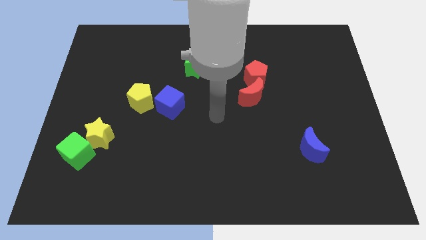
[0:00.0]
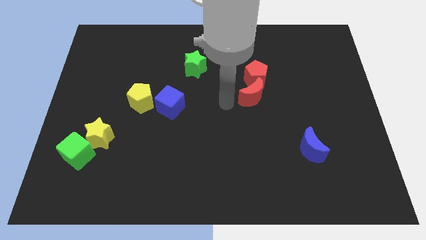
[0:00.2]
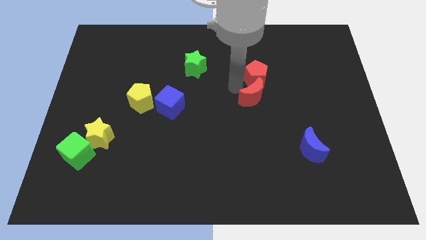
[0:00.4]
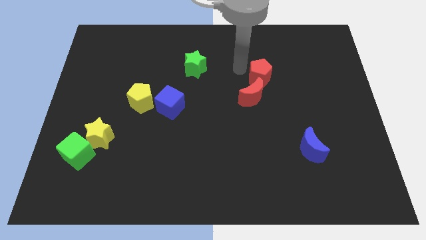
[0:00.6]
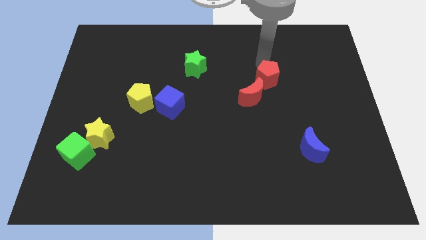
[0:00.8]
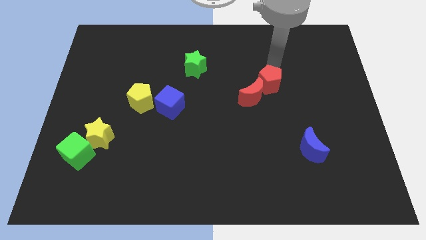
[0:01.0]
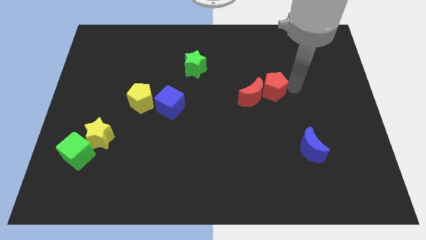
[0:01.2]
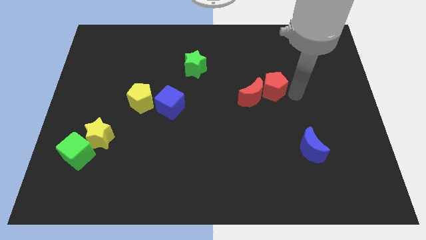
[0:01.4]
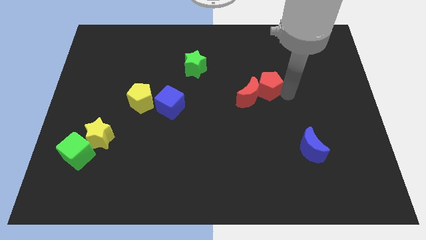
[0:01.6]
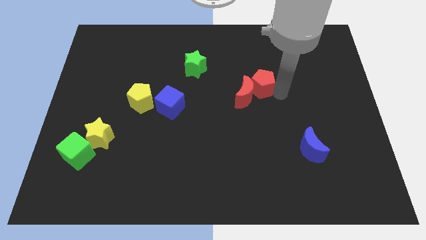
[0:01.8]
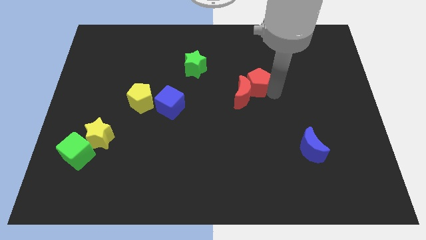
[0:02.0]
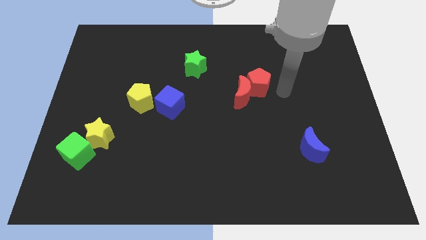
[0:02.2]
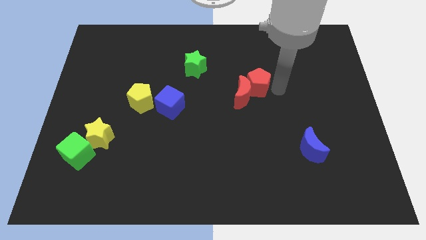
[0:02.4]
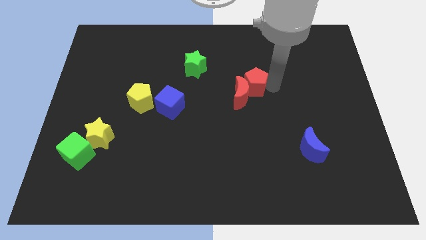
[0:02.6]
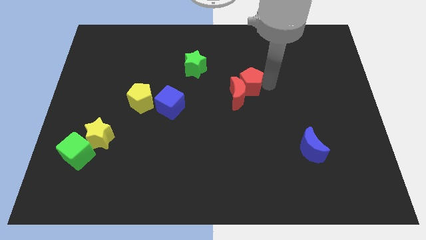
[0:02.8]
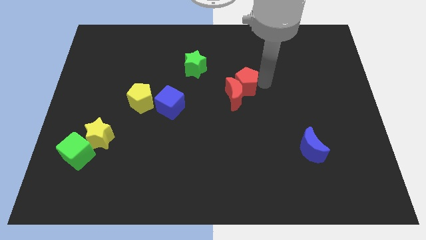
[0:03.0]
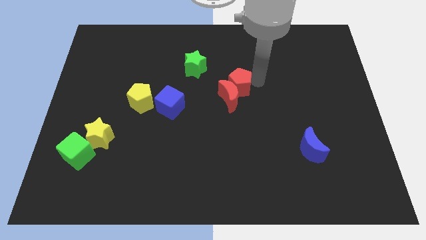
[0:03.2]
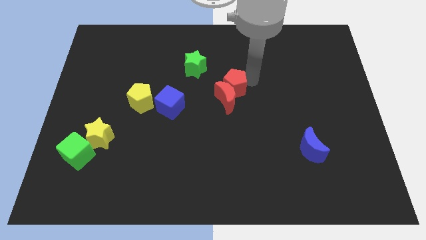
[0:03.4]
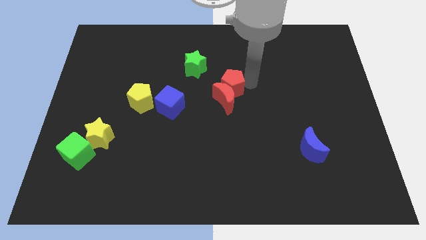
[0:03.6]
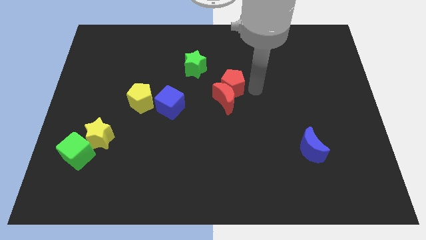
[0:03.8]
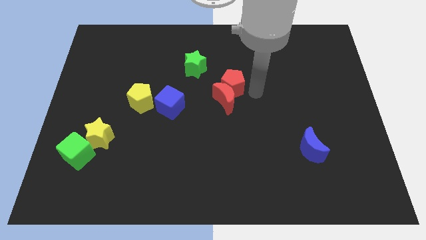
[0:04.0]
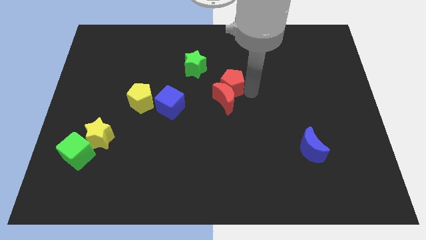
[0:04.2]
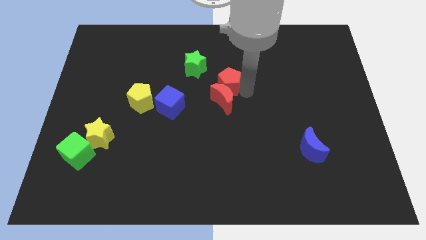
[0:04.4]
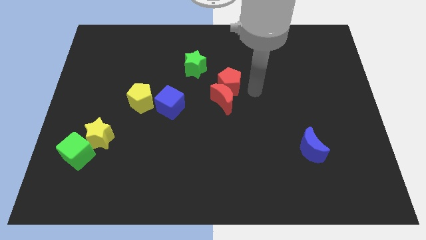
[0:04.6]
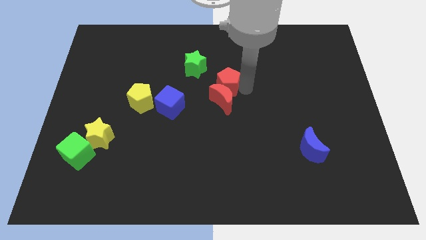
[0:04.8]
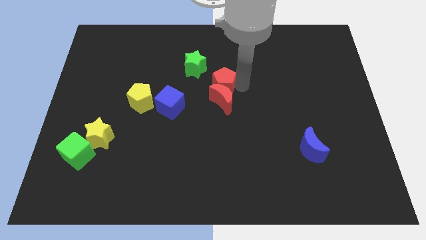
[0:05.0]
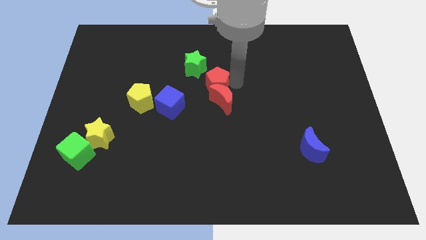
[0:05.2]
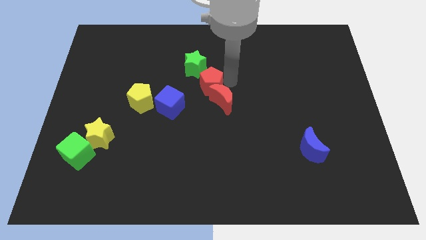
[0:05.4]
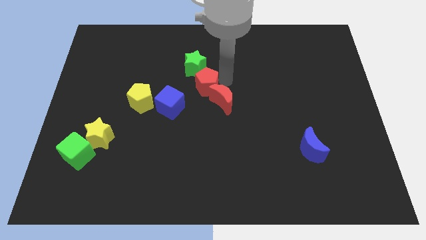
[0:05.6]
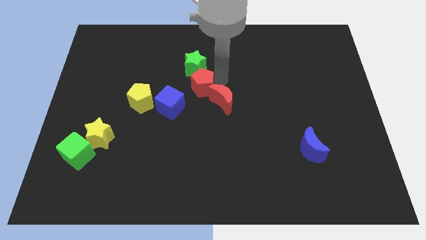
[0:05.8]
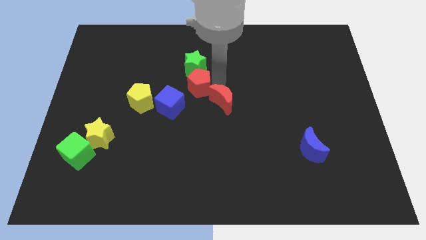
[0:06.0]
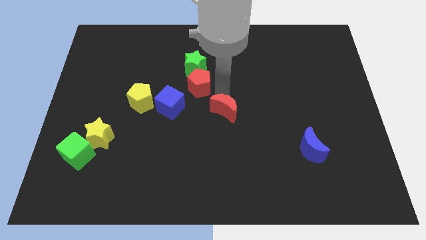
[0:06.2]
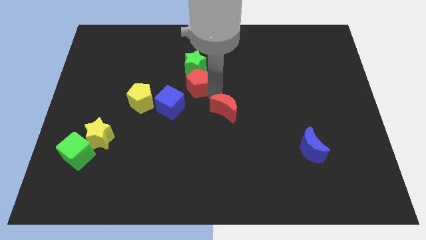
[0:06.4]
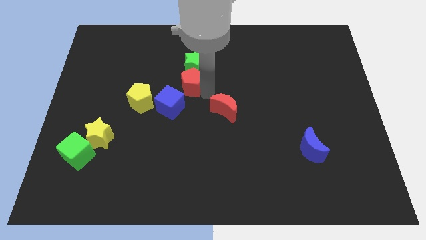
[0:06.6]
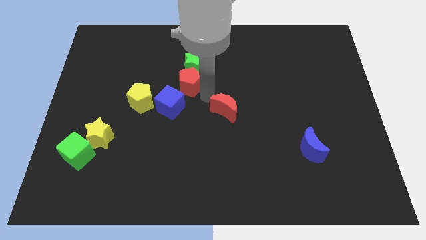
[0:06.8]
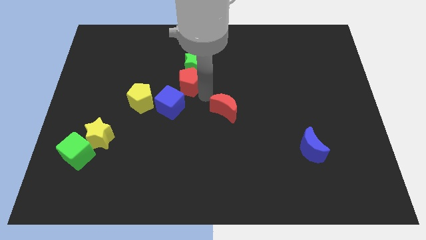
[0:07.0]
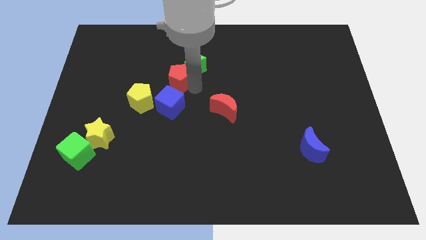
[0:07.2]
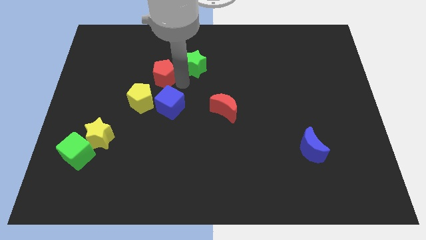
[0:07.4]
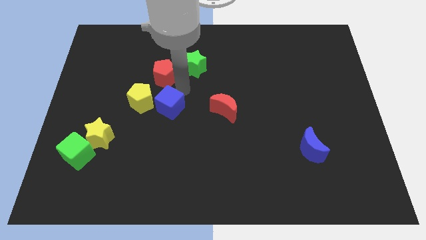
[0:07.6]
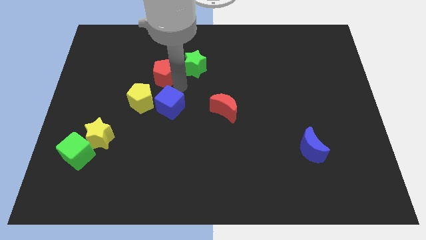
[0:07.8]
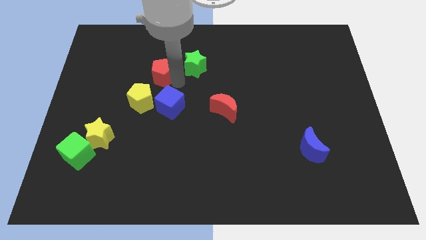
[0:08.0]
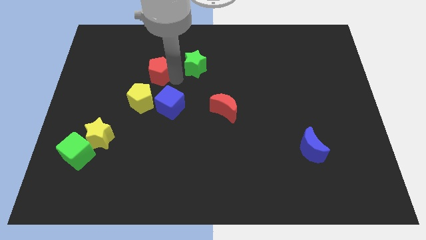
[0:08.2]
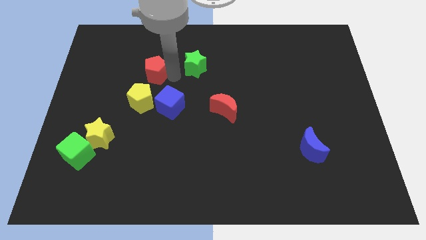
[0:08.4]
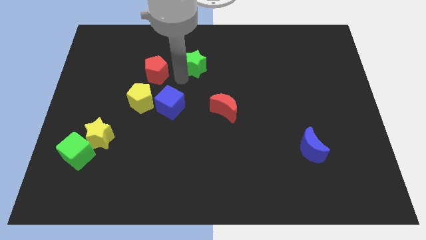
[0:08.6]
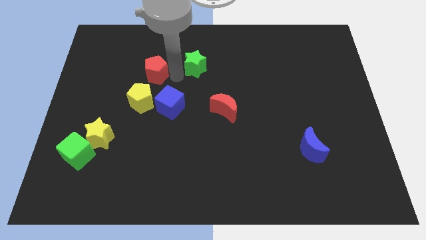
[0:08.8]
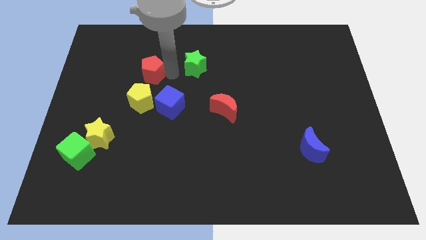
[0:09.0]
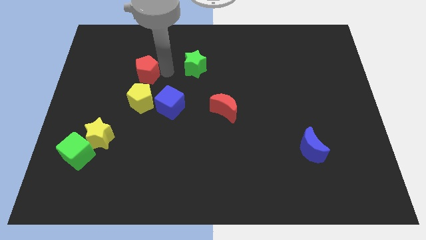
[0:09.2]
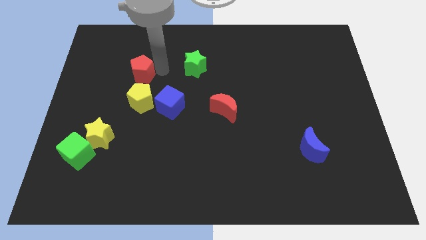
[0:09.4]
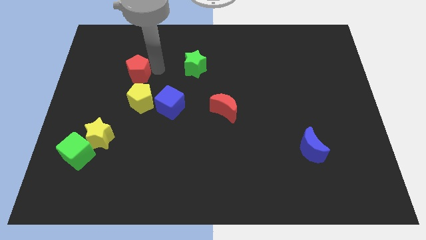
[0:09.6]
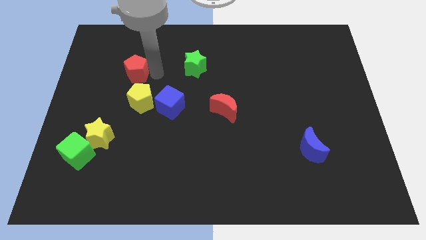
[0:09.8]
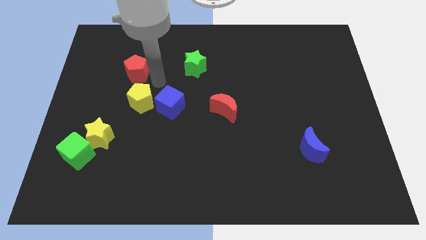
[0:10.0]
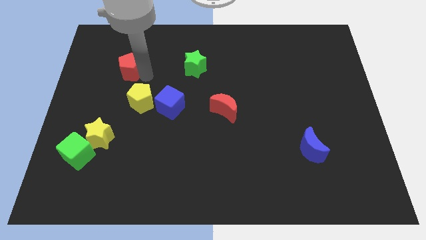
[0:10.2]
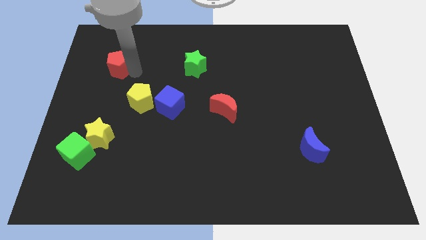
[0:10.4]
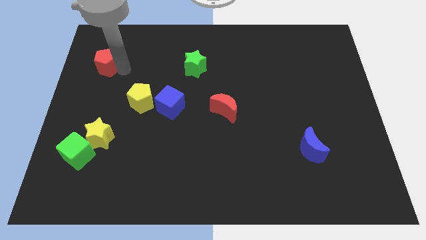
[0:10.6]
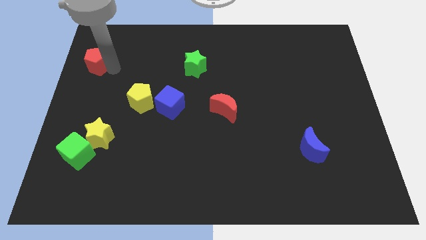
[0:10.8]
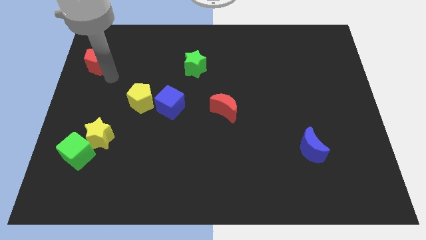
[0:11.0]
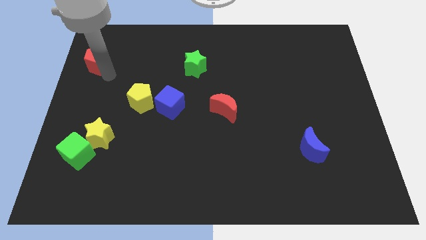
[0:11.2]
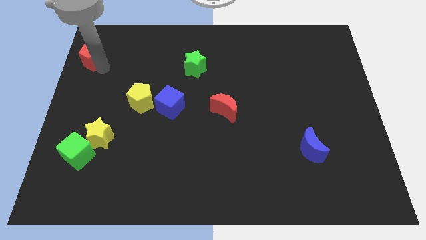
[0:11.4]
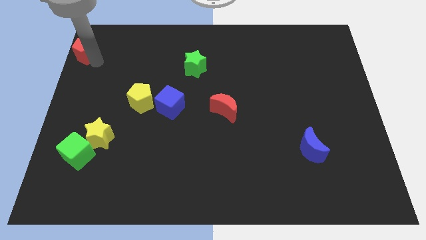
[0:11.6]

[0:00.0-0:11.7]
put the red pentagon to the top left corner
